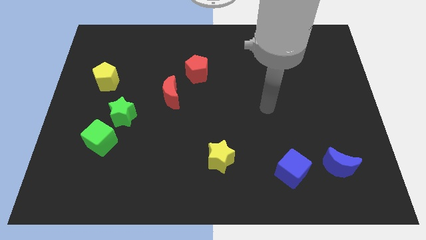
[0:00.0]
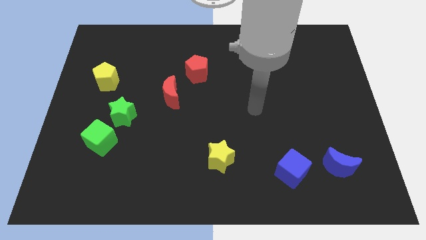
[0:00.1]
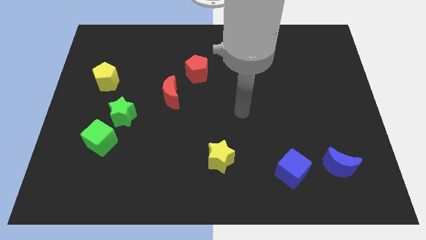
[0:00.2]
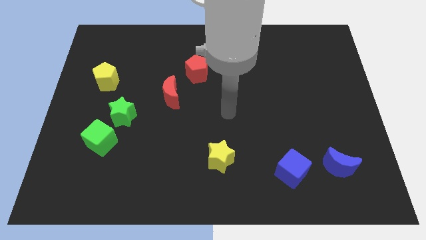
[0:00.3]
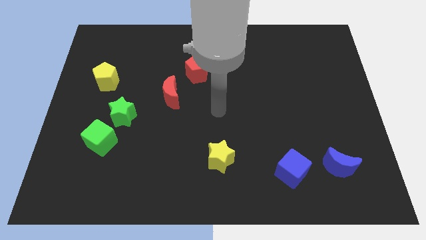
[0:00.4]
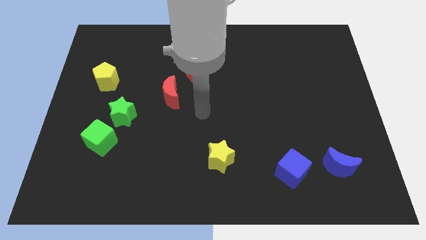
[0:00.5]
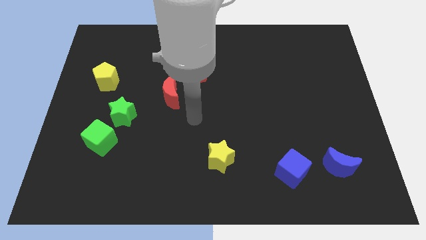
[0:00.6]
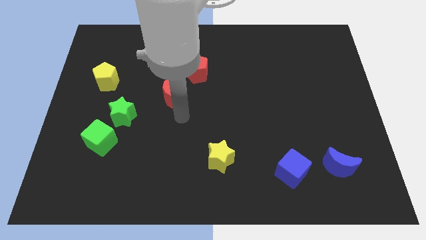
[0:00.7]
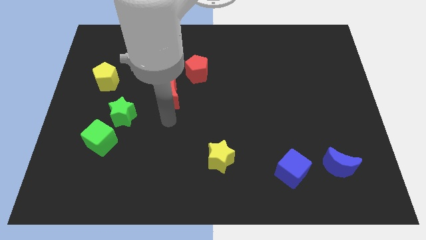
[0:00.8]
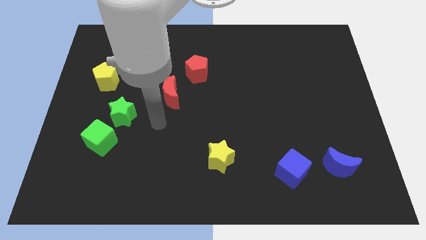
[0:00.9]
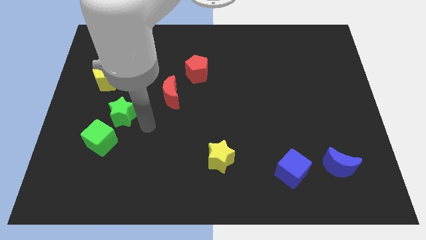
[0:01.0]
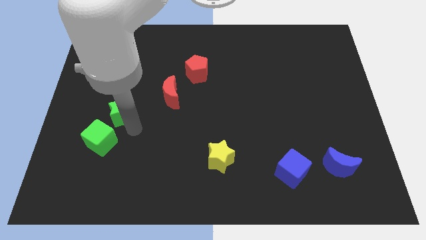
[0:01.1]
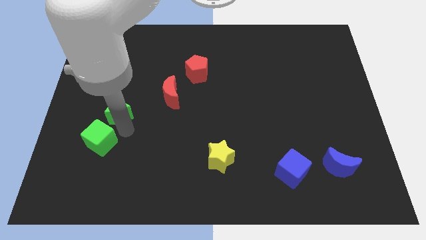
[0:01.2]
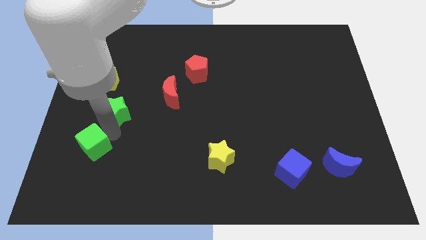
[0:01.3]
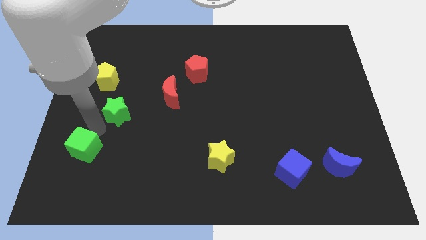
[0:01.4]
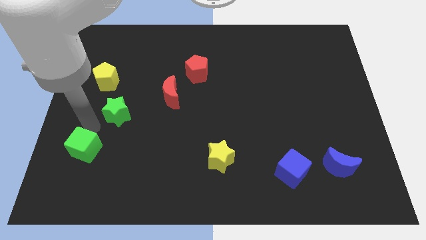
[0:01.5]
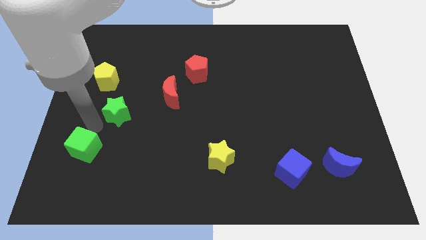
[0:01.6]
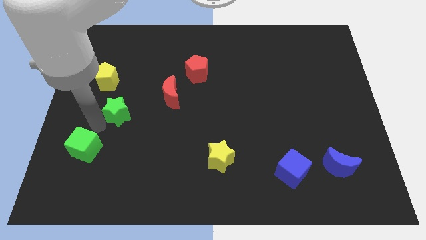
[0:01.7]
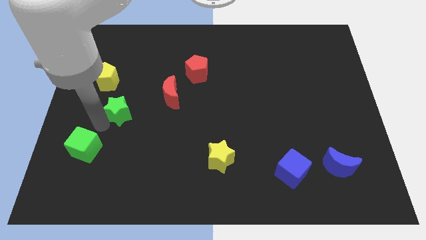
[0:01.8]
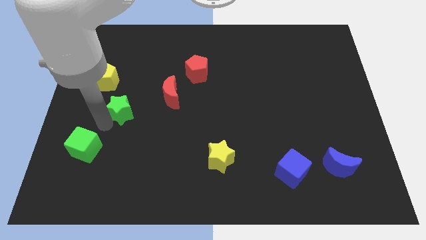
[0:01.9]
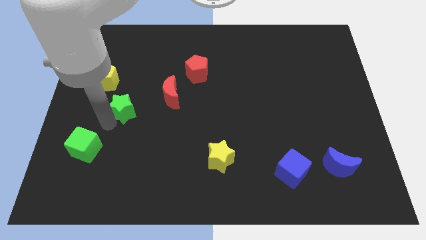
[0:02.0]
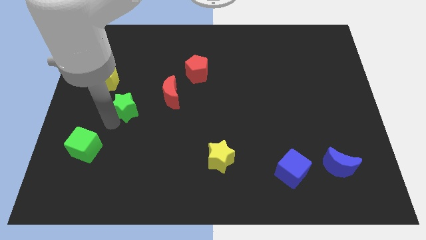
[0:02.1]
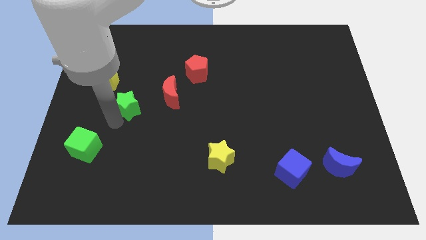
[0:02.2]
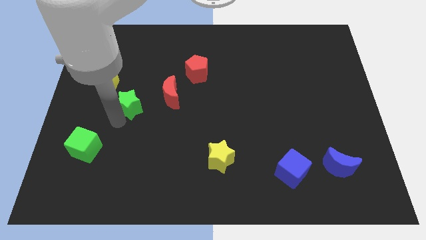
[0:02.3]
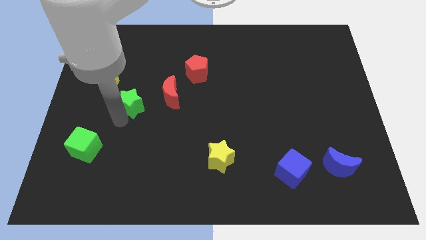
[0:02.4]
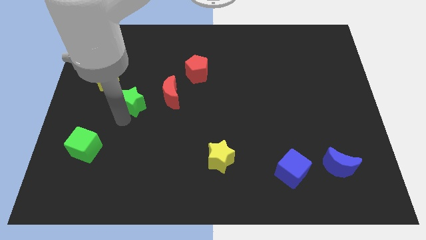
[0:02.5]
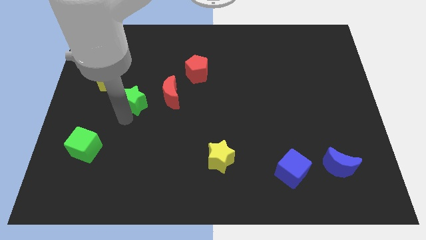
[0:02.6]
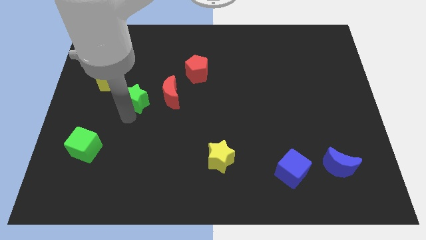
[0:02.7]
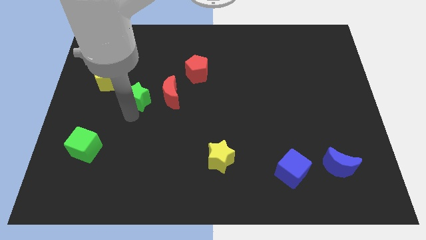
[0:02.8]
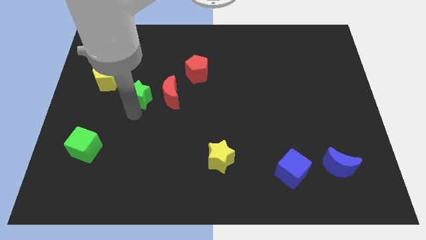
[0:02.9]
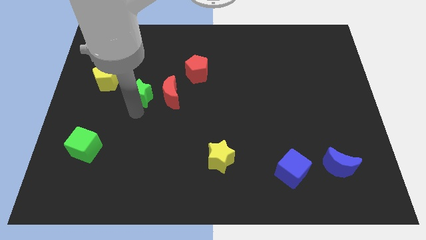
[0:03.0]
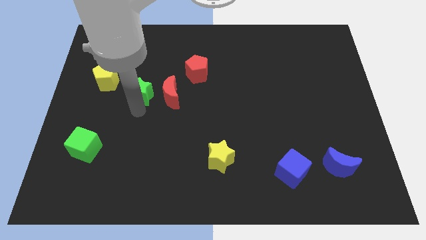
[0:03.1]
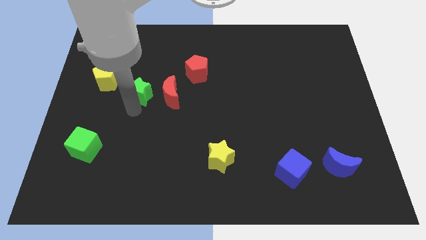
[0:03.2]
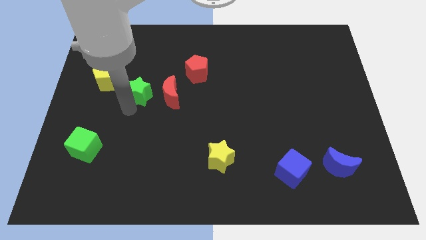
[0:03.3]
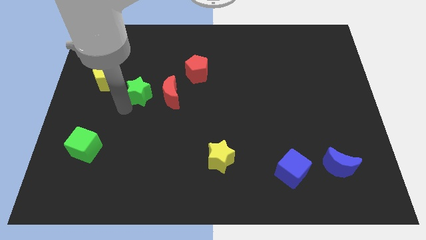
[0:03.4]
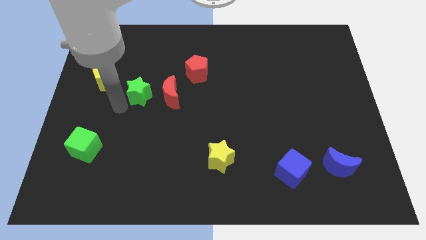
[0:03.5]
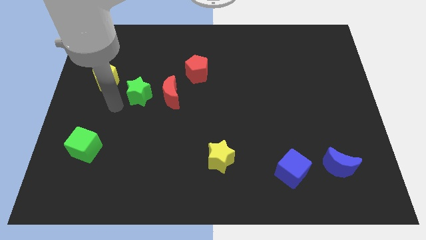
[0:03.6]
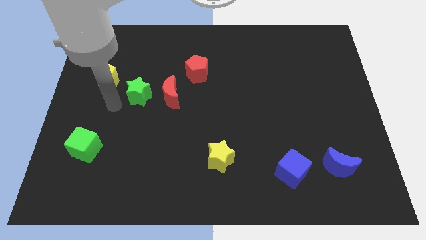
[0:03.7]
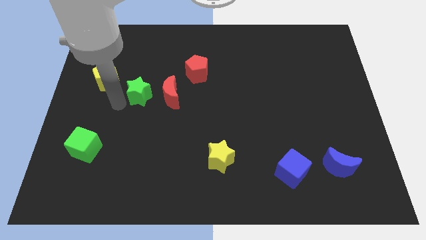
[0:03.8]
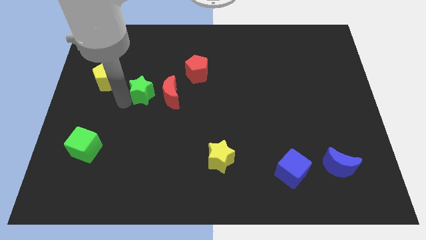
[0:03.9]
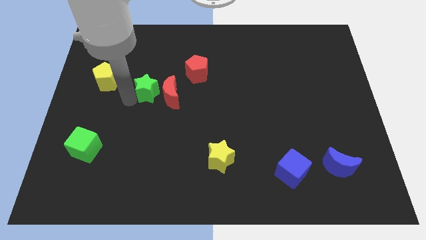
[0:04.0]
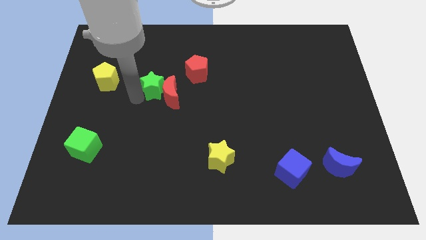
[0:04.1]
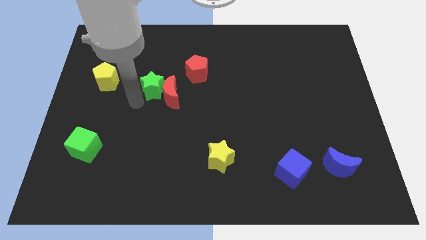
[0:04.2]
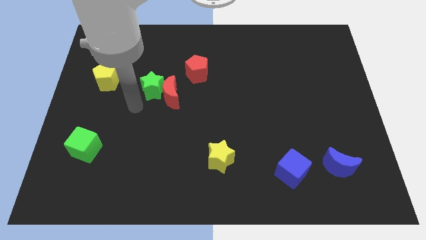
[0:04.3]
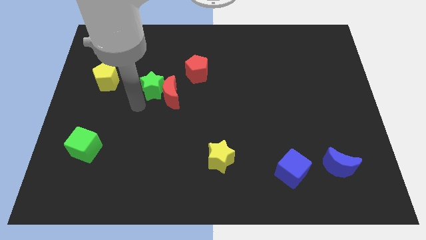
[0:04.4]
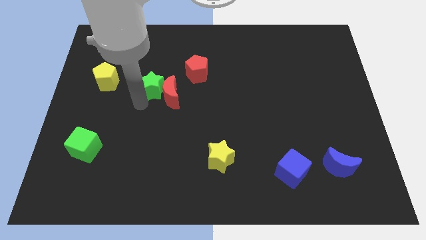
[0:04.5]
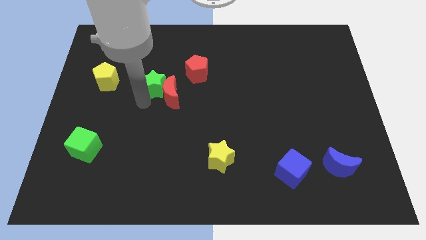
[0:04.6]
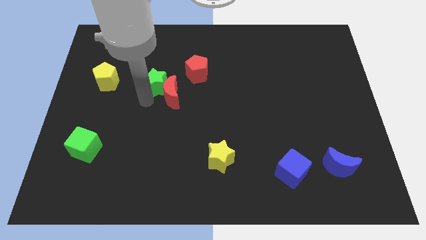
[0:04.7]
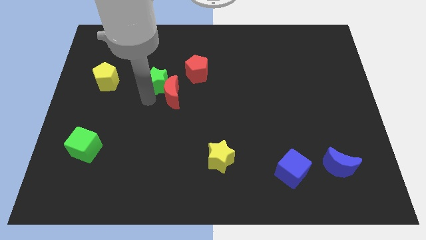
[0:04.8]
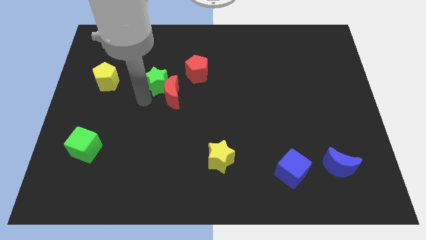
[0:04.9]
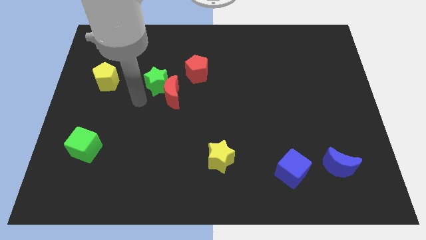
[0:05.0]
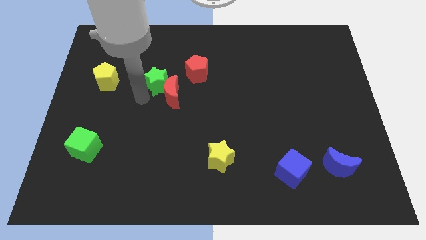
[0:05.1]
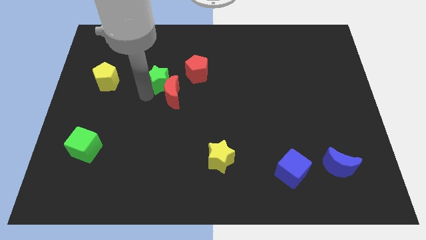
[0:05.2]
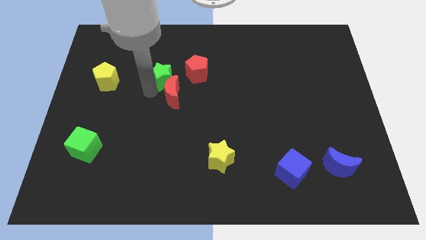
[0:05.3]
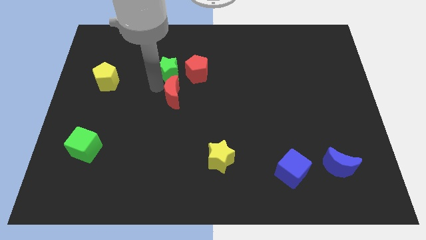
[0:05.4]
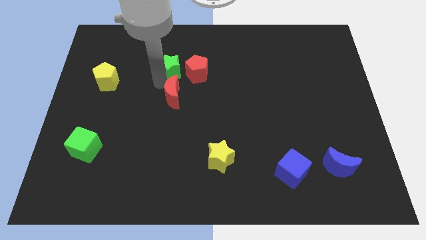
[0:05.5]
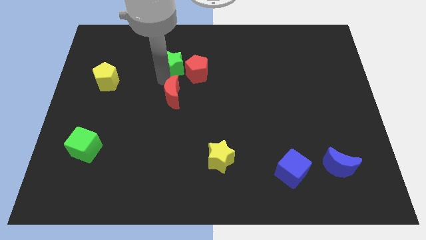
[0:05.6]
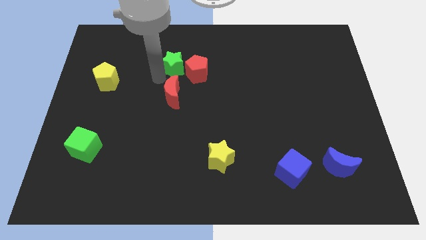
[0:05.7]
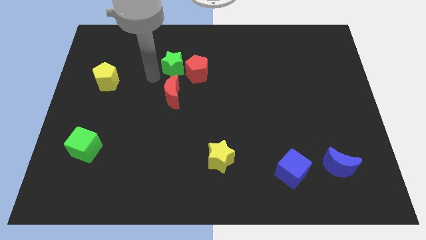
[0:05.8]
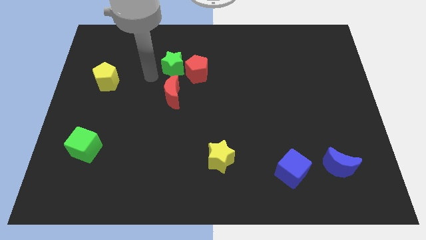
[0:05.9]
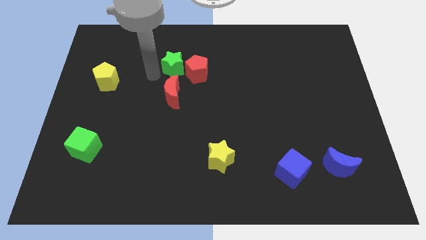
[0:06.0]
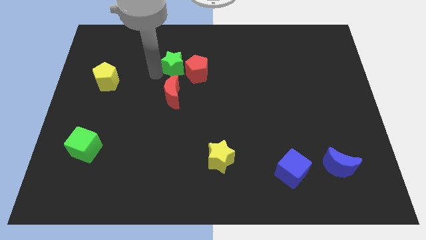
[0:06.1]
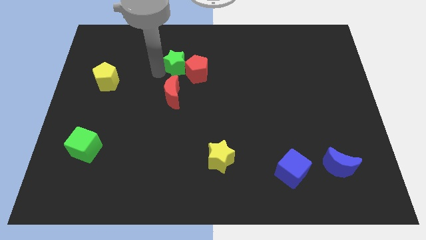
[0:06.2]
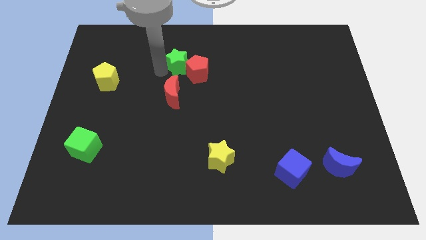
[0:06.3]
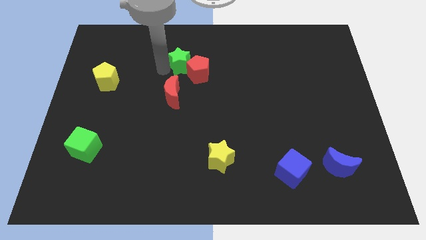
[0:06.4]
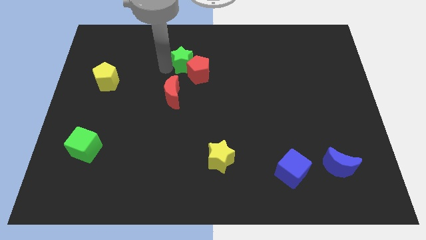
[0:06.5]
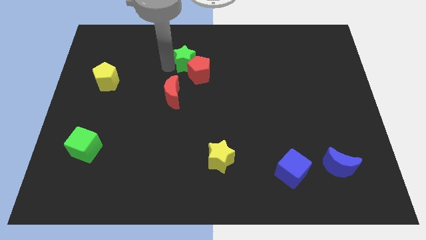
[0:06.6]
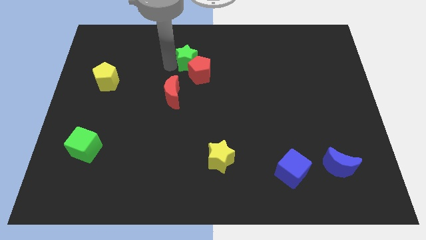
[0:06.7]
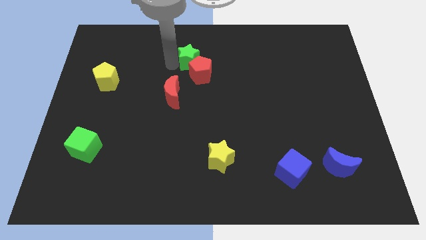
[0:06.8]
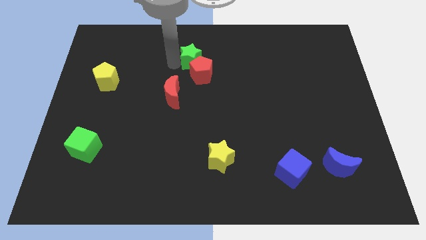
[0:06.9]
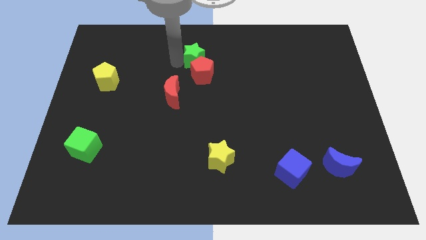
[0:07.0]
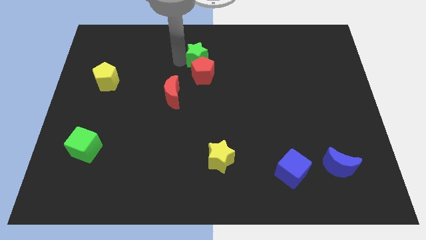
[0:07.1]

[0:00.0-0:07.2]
push the green star to the top right side of the red pentagon
